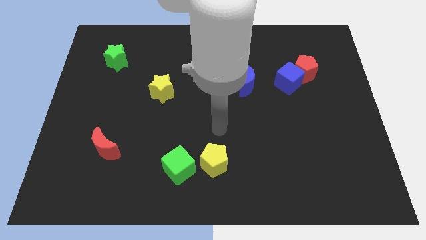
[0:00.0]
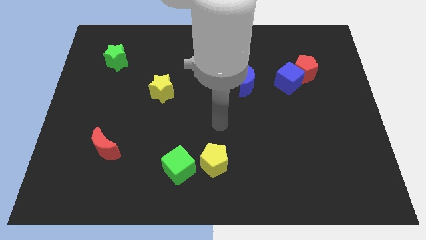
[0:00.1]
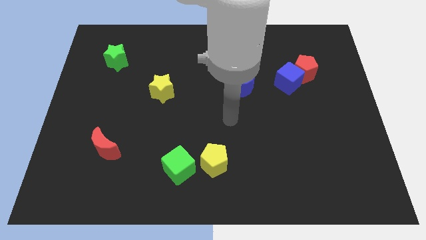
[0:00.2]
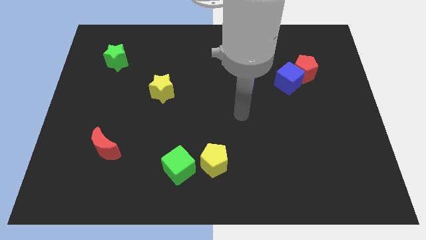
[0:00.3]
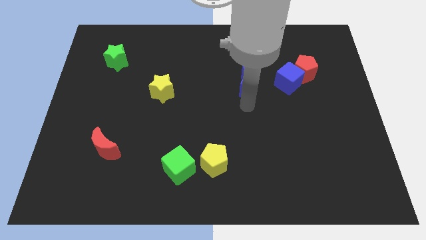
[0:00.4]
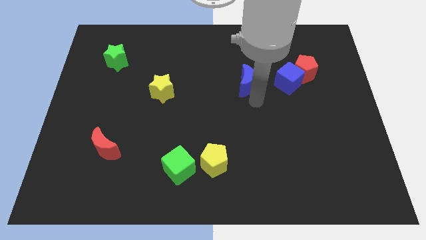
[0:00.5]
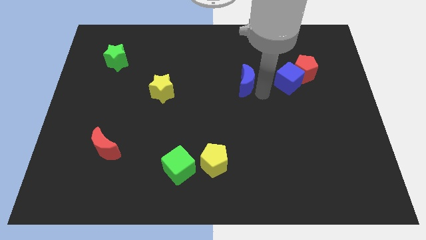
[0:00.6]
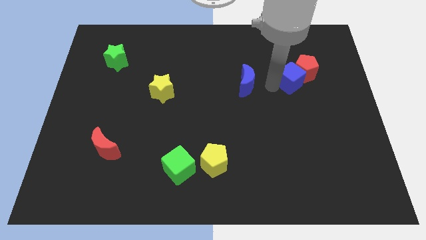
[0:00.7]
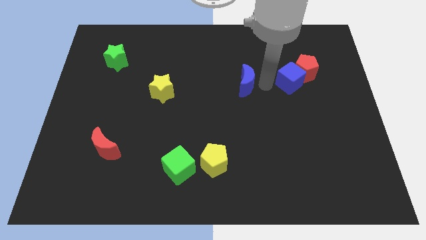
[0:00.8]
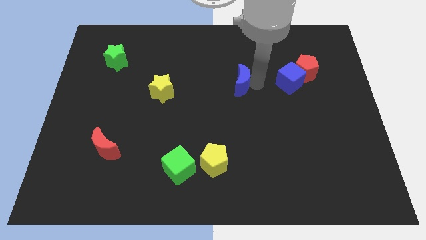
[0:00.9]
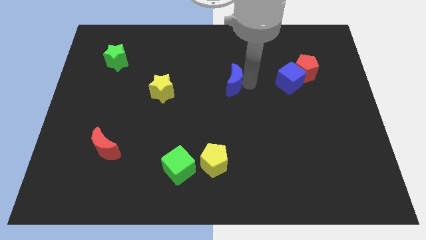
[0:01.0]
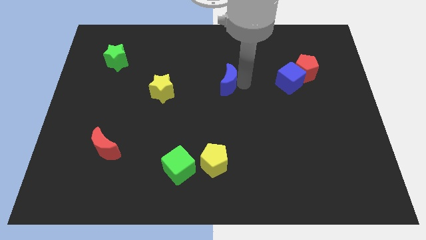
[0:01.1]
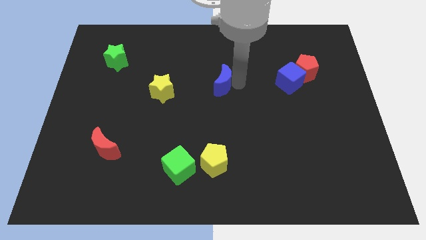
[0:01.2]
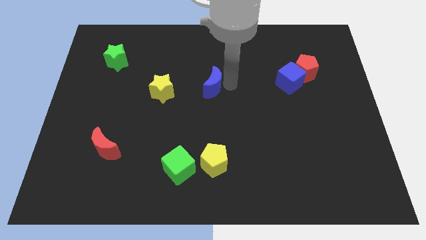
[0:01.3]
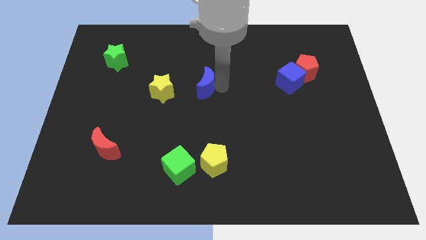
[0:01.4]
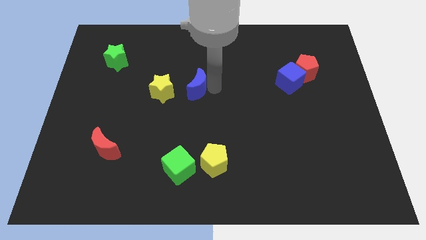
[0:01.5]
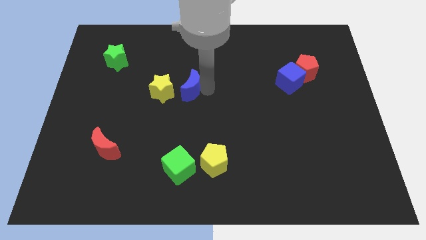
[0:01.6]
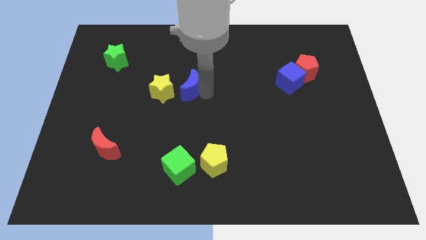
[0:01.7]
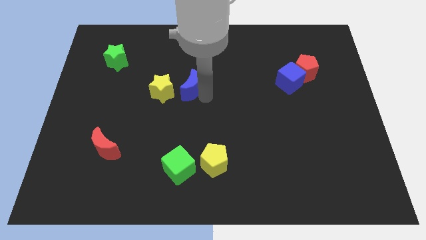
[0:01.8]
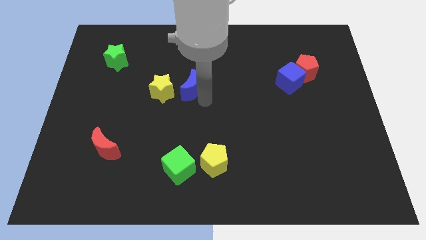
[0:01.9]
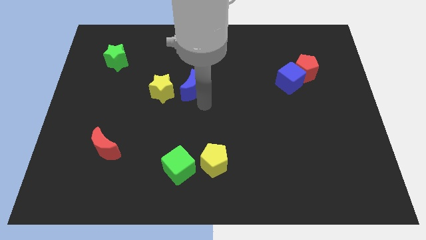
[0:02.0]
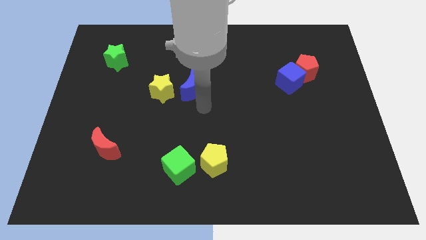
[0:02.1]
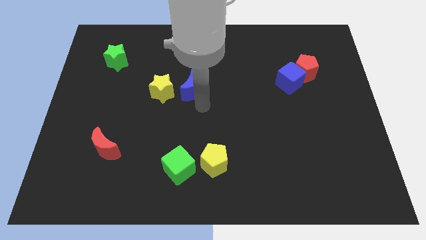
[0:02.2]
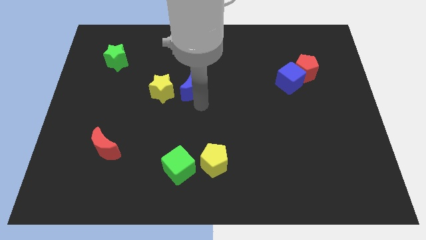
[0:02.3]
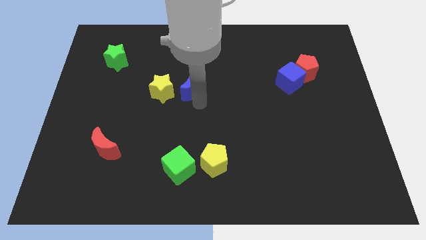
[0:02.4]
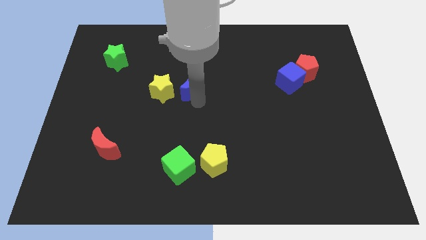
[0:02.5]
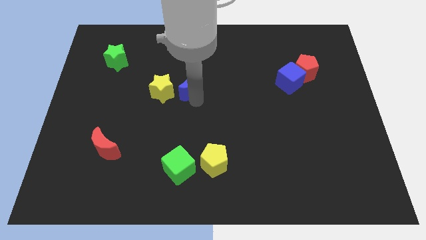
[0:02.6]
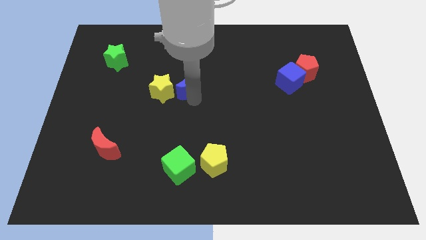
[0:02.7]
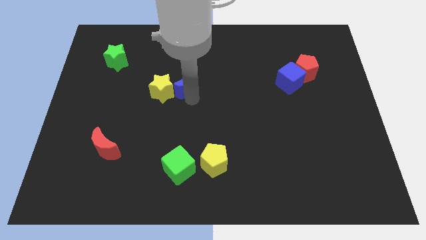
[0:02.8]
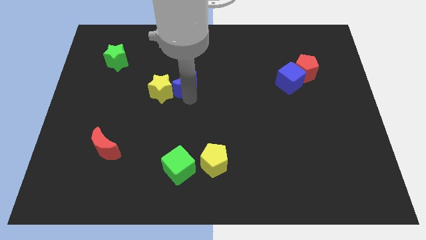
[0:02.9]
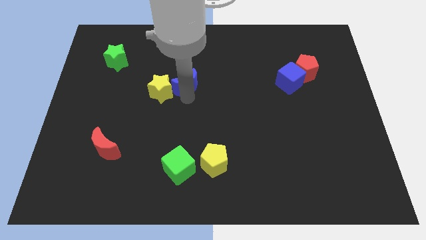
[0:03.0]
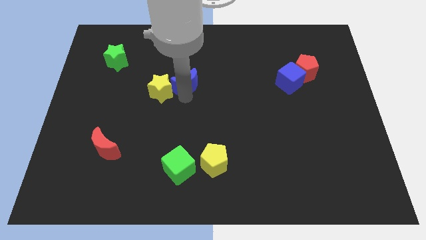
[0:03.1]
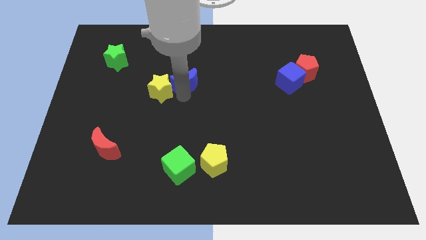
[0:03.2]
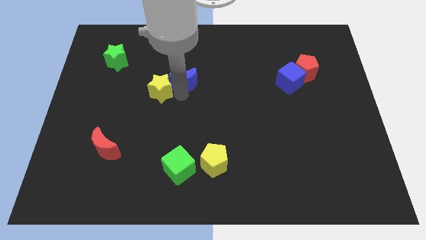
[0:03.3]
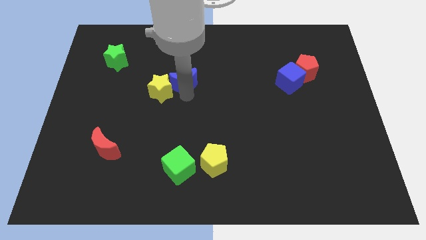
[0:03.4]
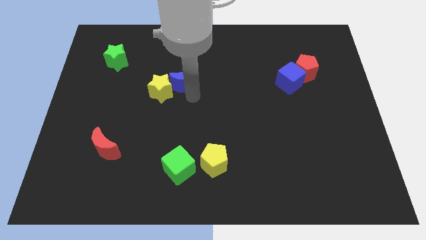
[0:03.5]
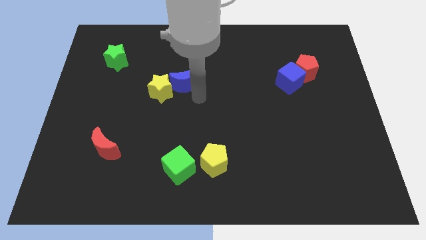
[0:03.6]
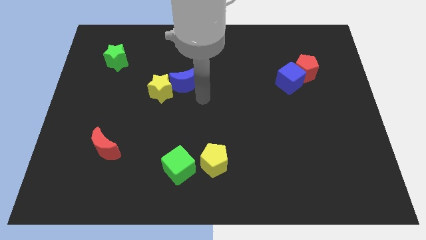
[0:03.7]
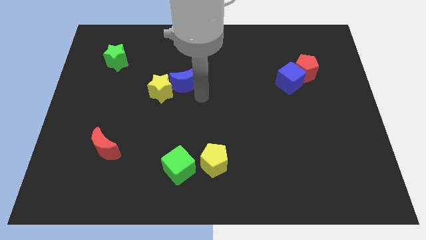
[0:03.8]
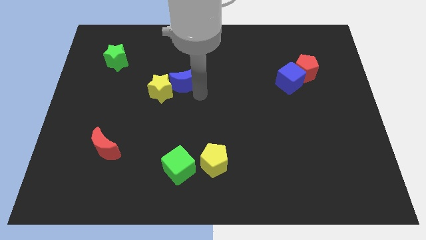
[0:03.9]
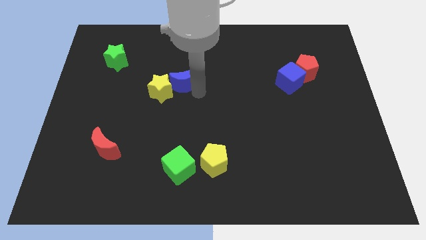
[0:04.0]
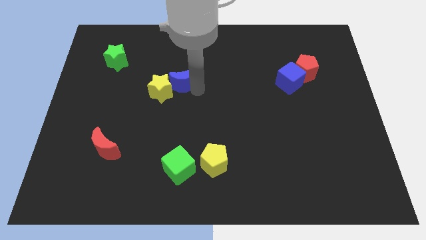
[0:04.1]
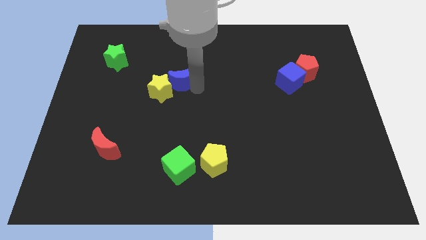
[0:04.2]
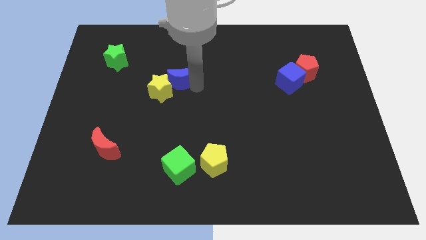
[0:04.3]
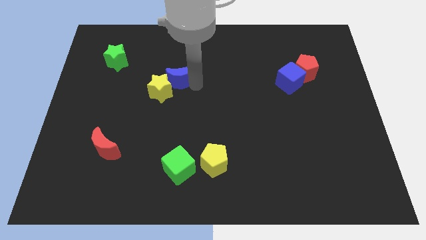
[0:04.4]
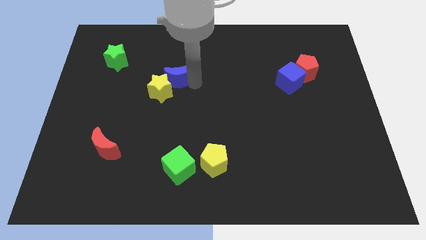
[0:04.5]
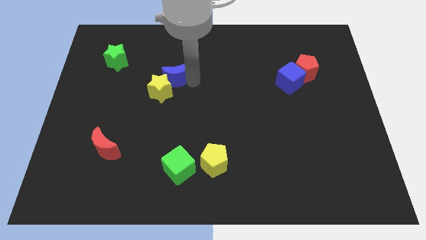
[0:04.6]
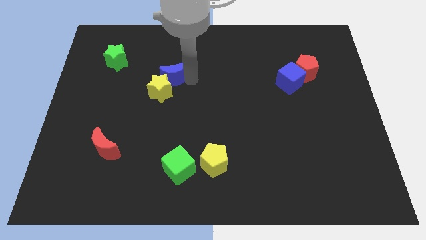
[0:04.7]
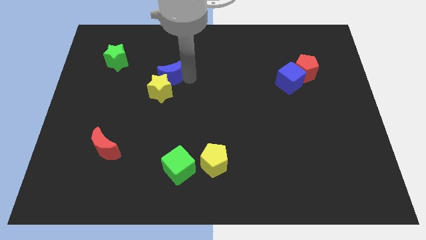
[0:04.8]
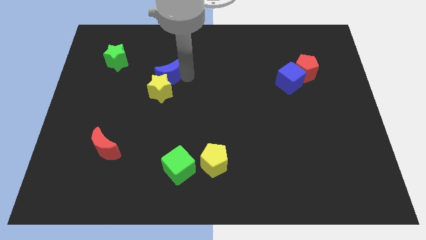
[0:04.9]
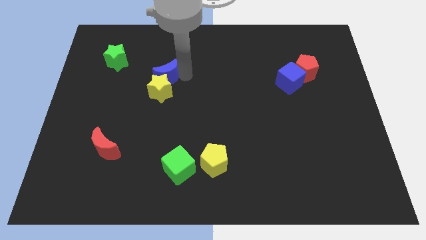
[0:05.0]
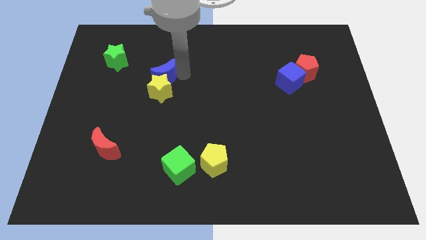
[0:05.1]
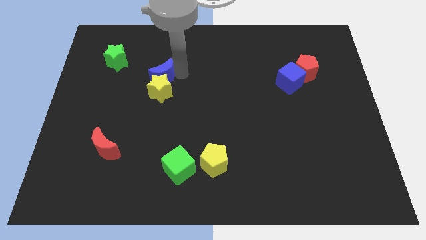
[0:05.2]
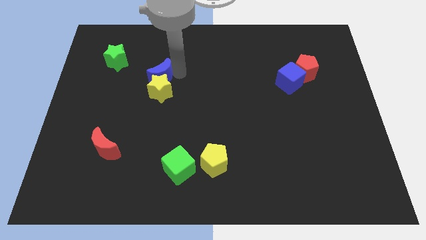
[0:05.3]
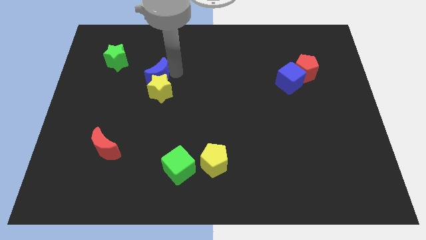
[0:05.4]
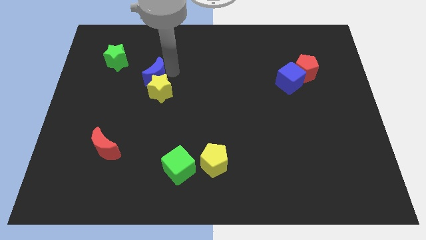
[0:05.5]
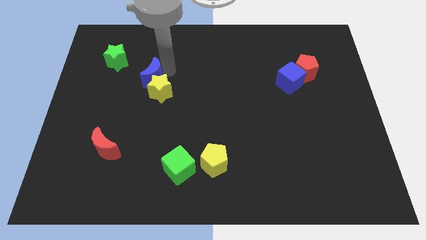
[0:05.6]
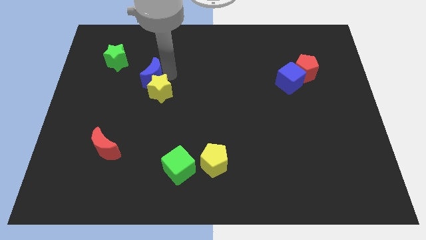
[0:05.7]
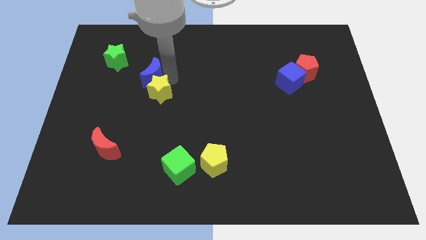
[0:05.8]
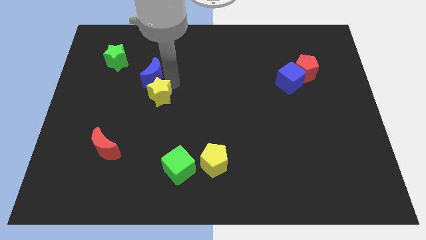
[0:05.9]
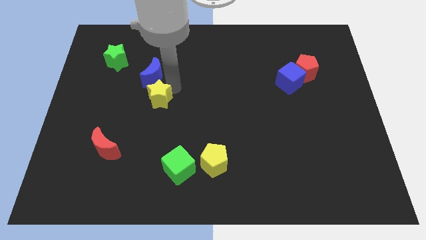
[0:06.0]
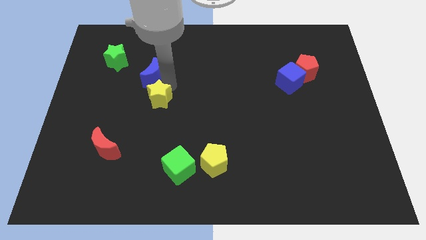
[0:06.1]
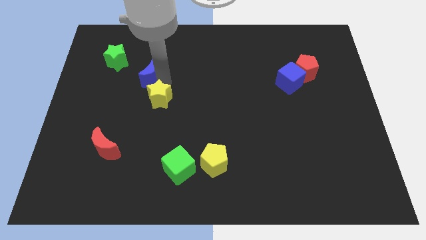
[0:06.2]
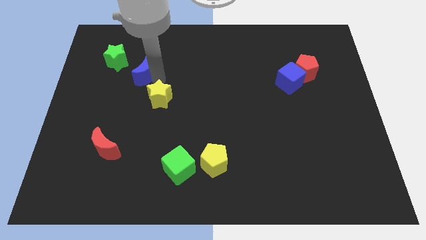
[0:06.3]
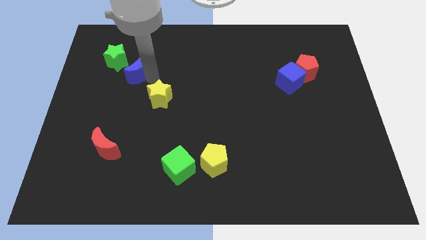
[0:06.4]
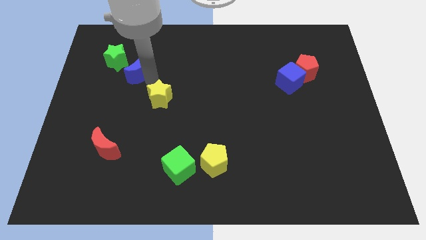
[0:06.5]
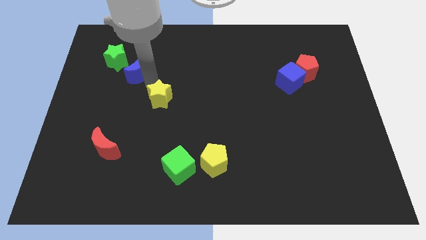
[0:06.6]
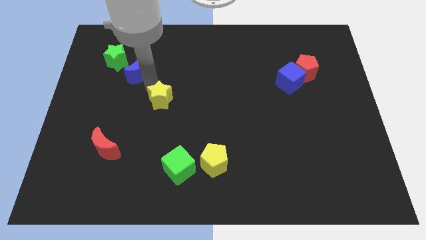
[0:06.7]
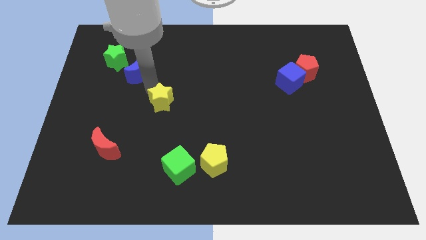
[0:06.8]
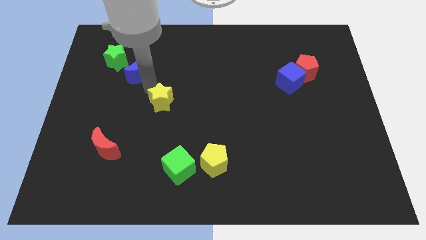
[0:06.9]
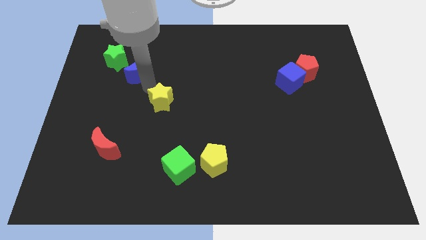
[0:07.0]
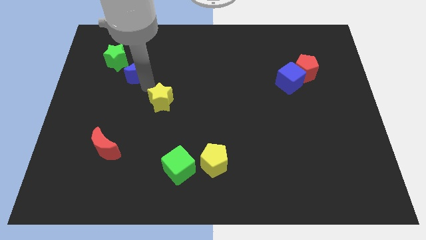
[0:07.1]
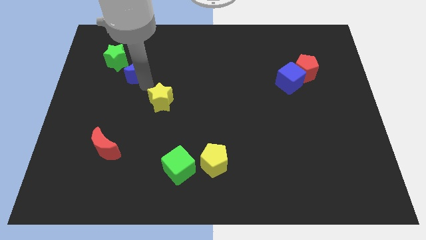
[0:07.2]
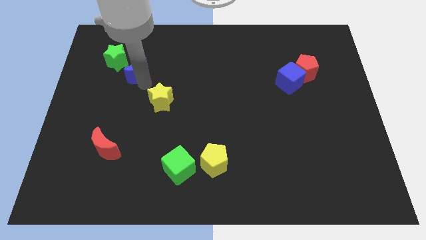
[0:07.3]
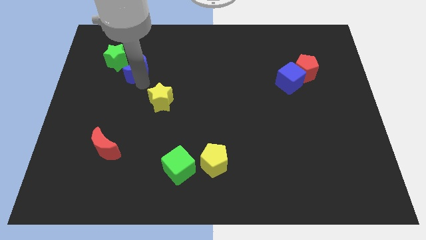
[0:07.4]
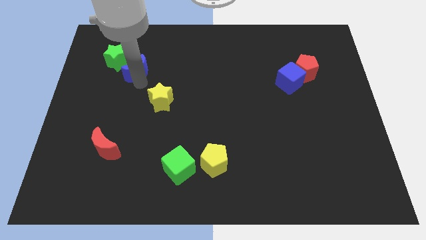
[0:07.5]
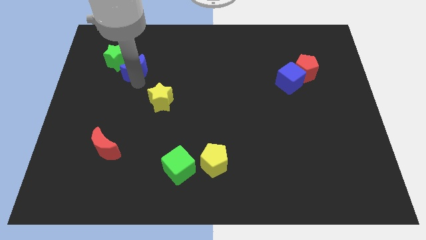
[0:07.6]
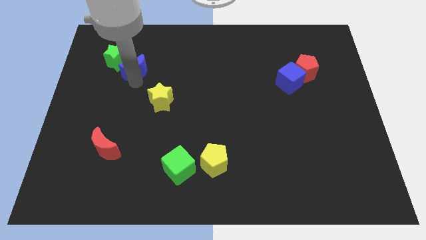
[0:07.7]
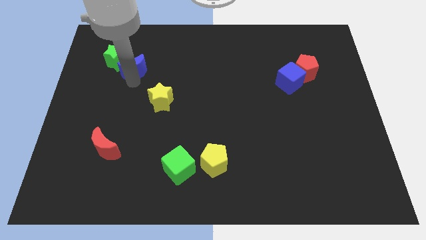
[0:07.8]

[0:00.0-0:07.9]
put the blue moon towards the green star
